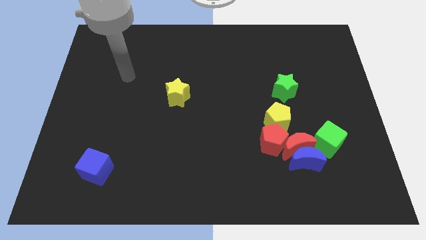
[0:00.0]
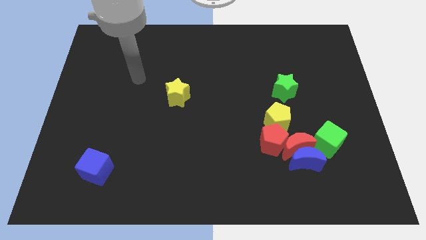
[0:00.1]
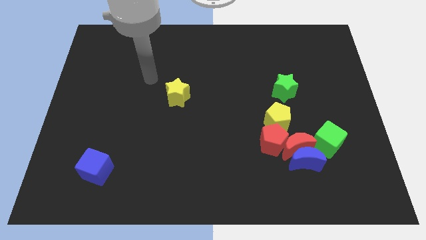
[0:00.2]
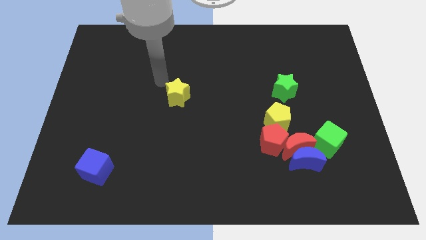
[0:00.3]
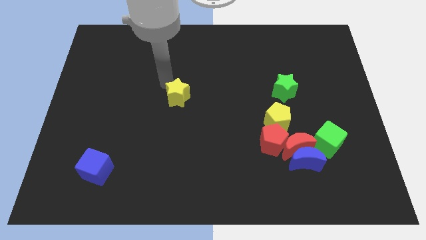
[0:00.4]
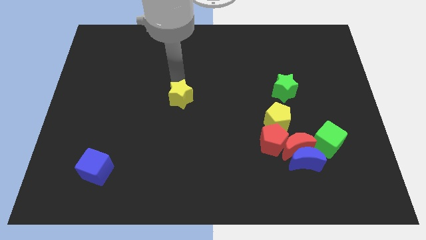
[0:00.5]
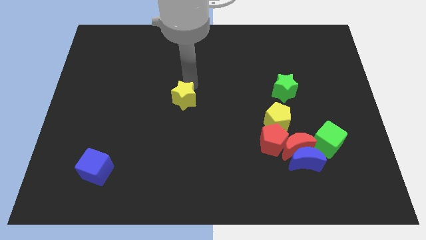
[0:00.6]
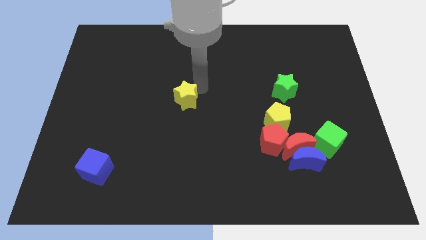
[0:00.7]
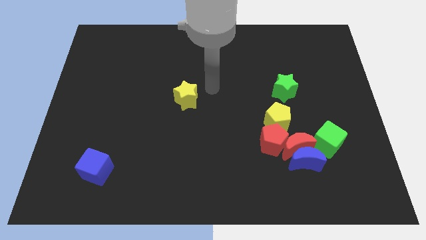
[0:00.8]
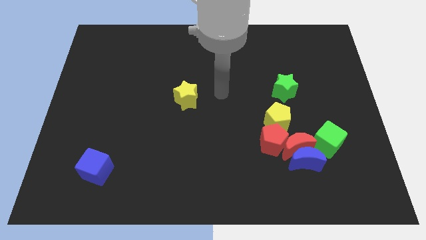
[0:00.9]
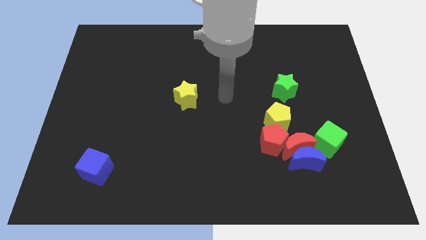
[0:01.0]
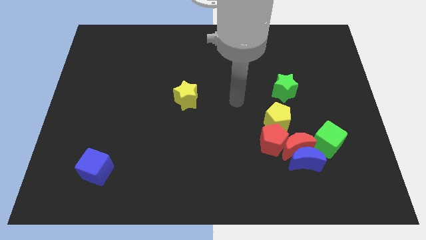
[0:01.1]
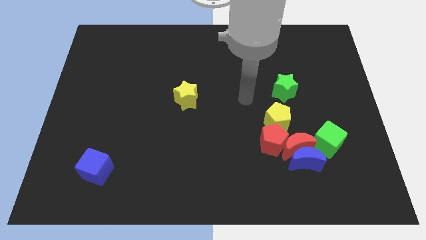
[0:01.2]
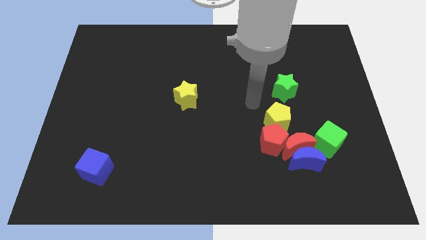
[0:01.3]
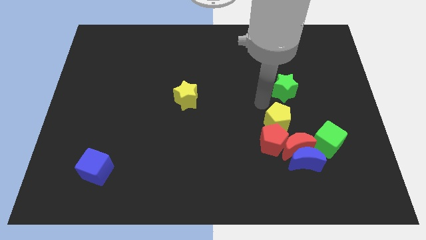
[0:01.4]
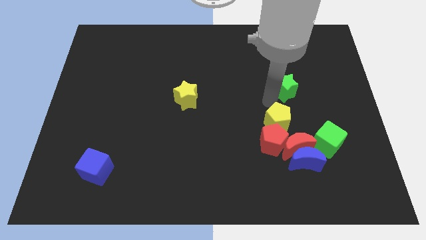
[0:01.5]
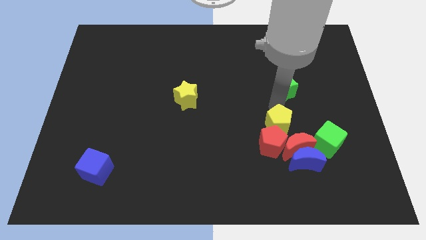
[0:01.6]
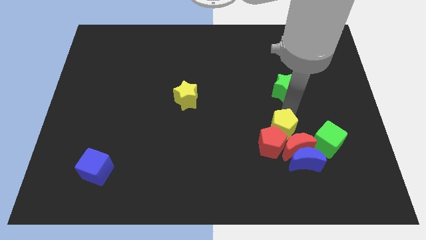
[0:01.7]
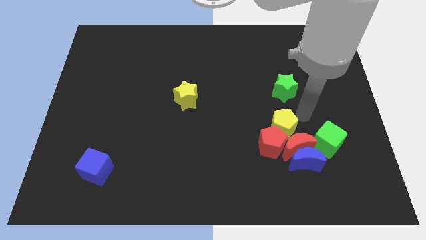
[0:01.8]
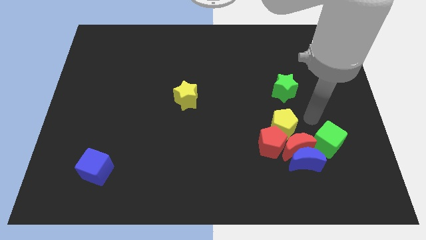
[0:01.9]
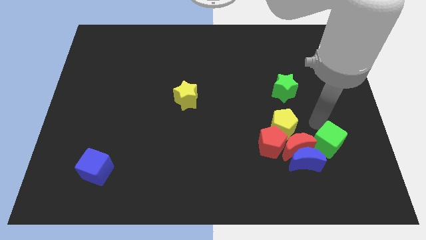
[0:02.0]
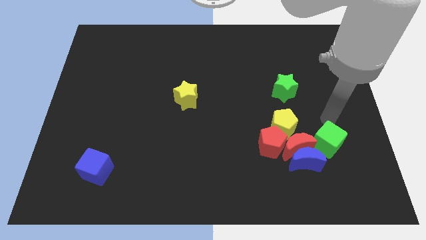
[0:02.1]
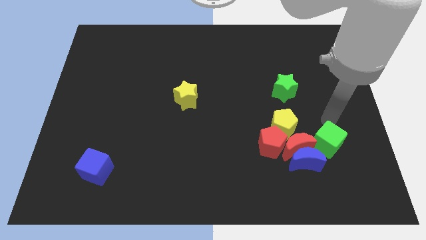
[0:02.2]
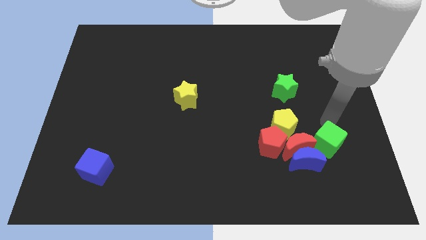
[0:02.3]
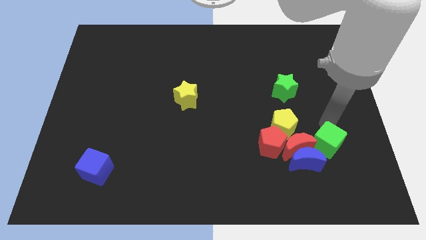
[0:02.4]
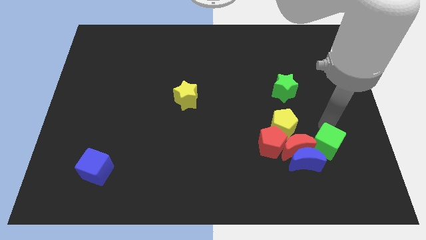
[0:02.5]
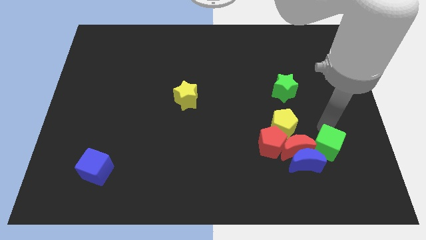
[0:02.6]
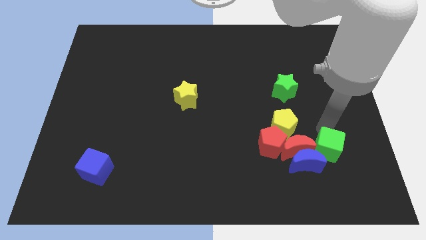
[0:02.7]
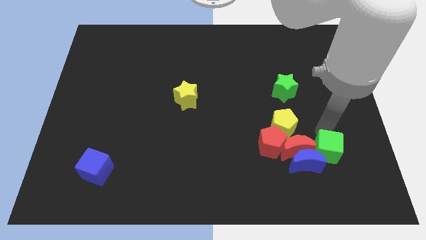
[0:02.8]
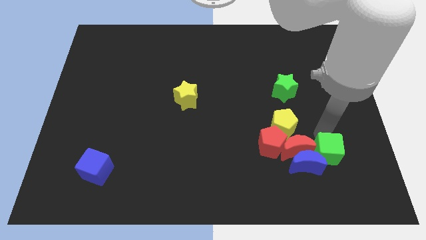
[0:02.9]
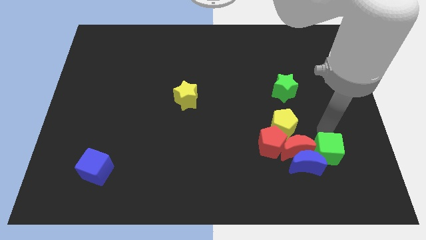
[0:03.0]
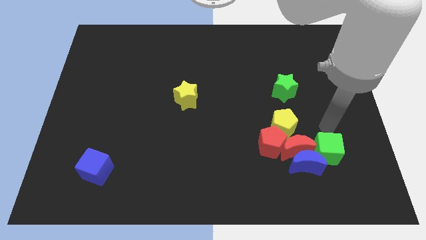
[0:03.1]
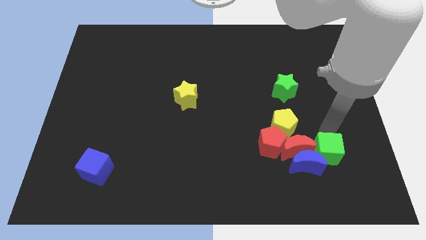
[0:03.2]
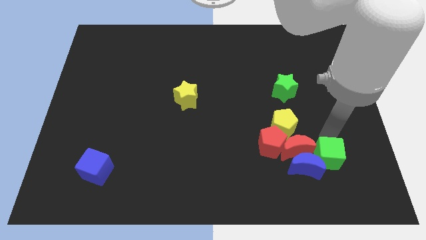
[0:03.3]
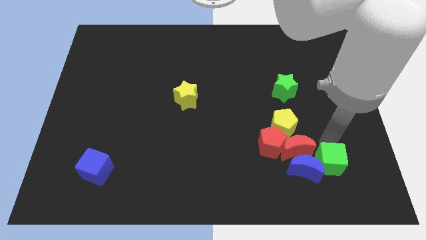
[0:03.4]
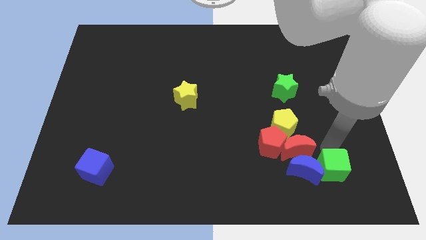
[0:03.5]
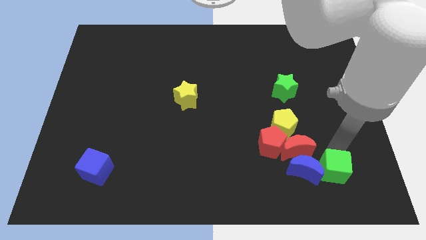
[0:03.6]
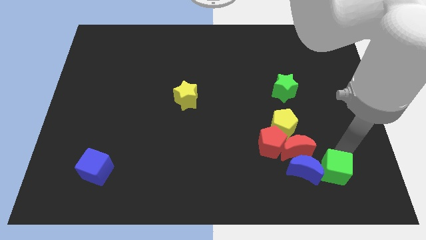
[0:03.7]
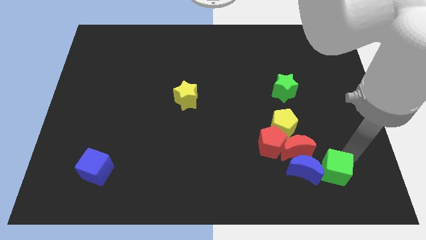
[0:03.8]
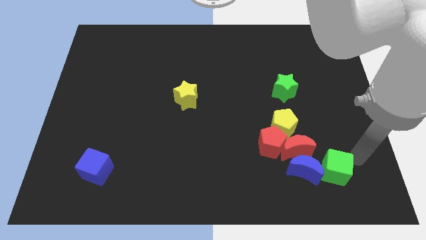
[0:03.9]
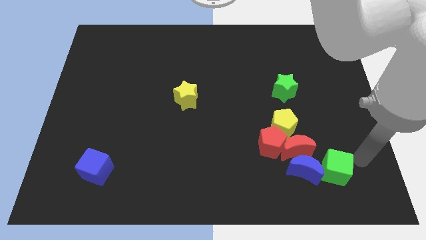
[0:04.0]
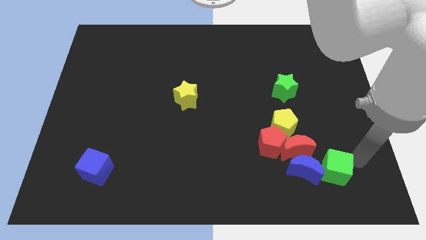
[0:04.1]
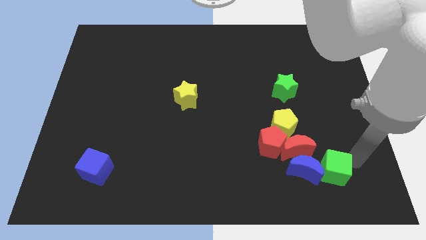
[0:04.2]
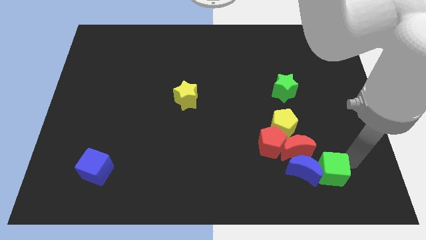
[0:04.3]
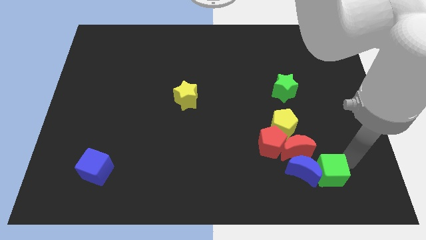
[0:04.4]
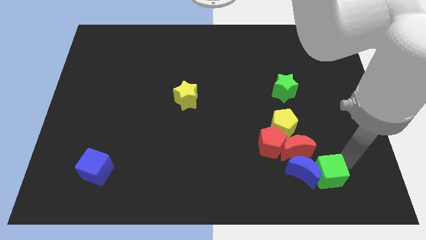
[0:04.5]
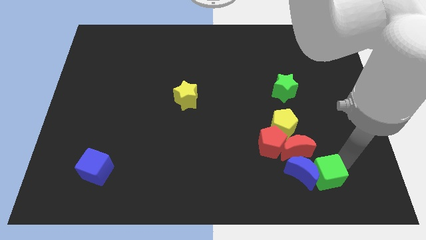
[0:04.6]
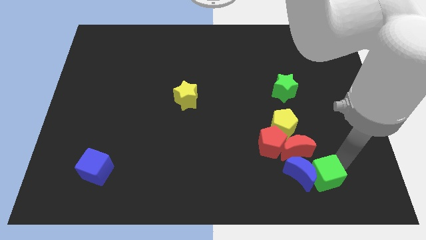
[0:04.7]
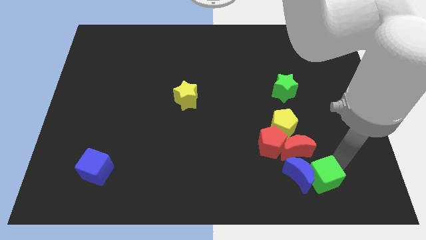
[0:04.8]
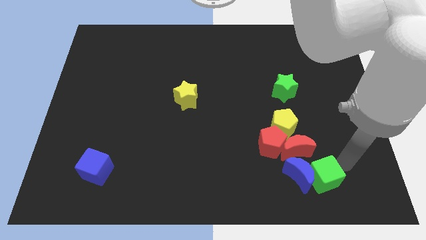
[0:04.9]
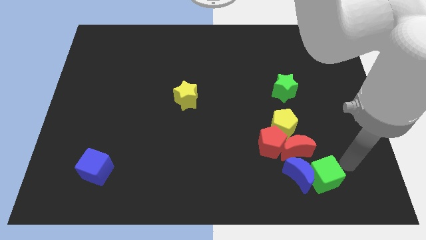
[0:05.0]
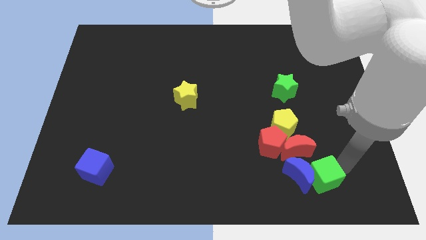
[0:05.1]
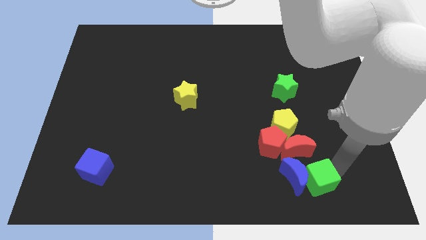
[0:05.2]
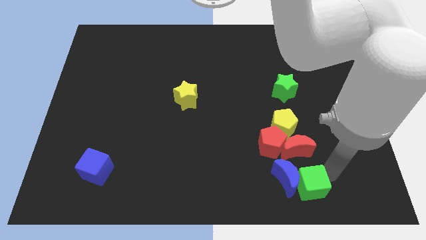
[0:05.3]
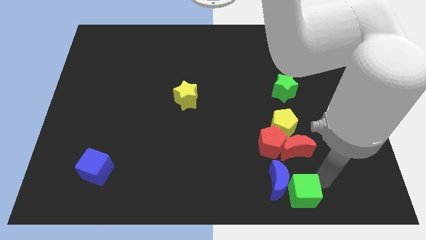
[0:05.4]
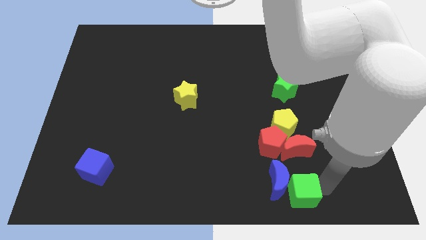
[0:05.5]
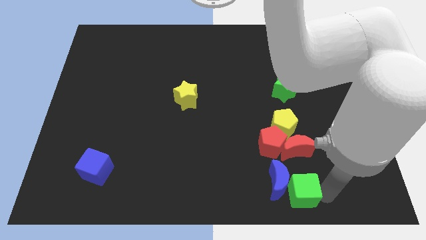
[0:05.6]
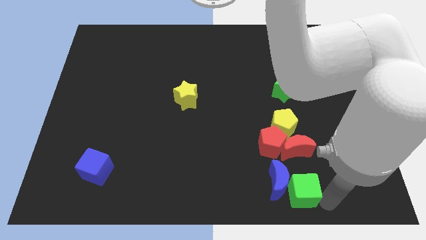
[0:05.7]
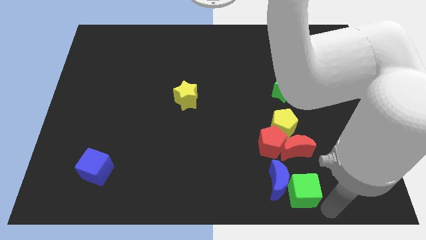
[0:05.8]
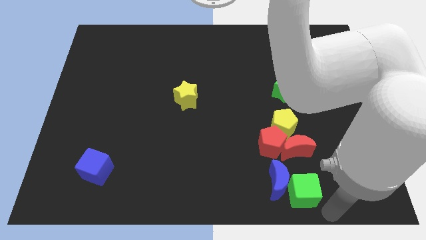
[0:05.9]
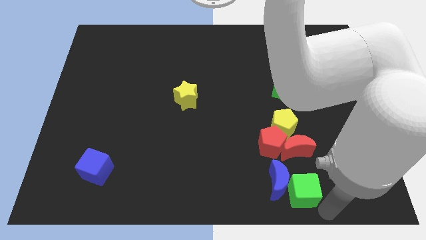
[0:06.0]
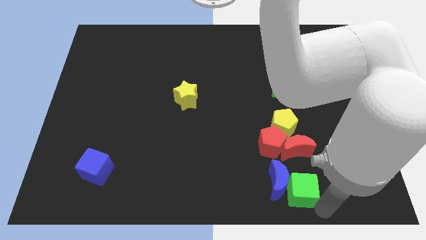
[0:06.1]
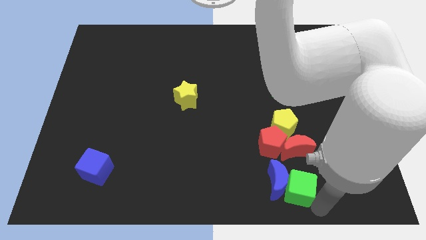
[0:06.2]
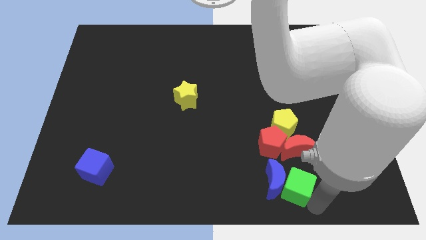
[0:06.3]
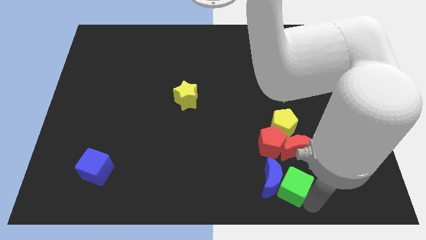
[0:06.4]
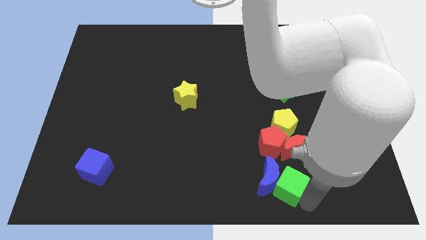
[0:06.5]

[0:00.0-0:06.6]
push the green cube to the bottom left side of the red moon

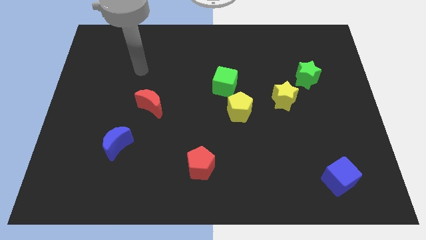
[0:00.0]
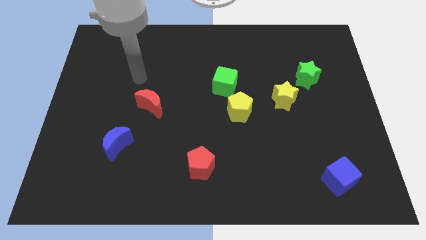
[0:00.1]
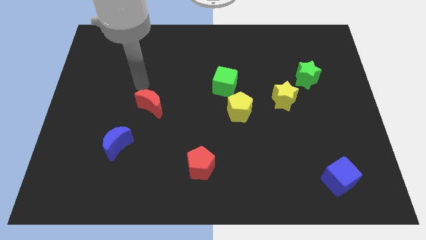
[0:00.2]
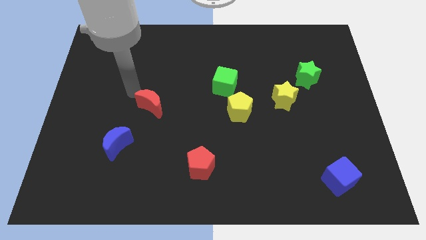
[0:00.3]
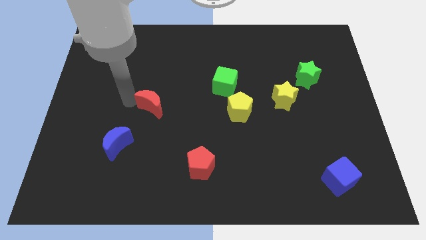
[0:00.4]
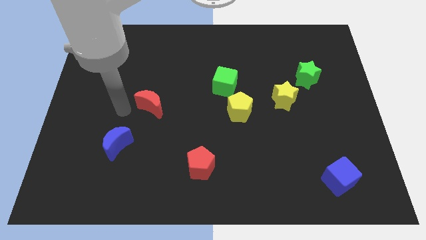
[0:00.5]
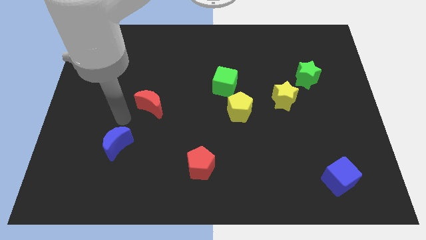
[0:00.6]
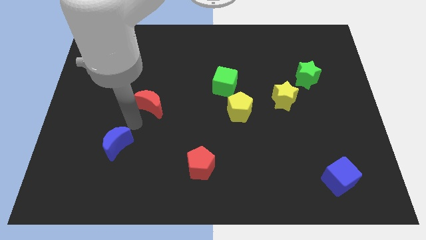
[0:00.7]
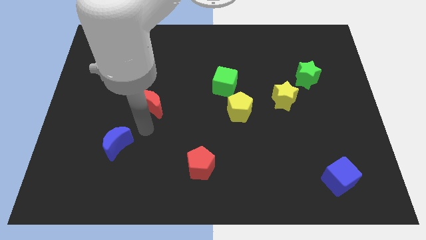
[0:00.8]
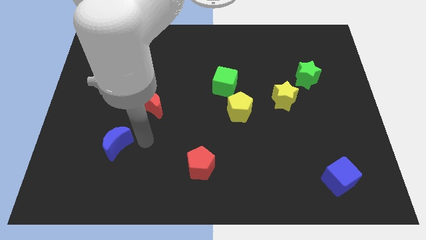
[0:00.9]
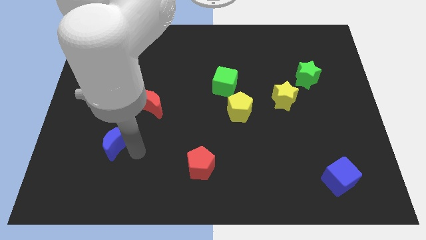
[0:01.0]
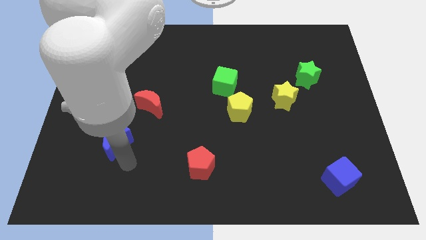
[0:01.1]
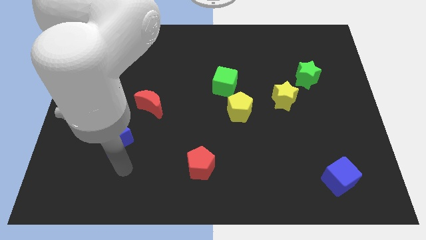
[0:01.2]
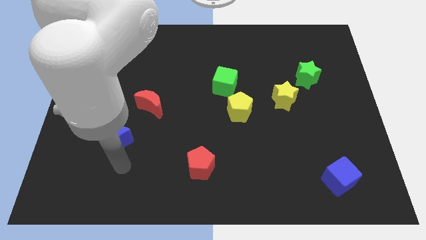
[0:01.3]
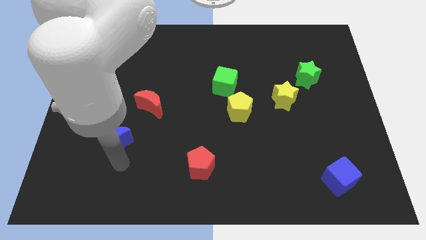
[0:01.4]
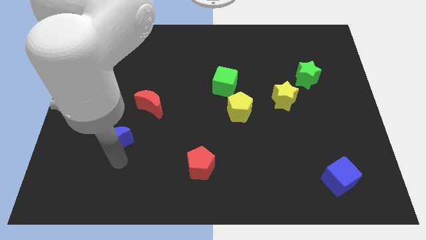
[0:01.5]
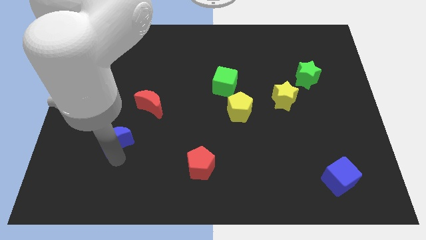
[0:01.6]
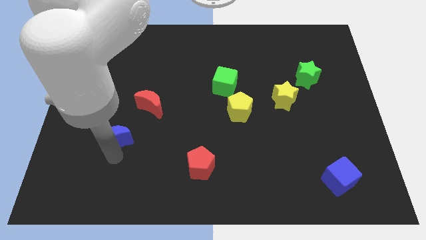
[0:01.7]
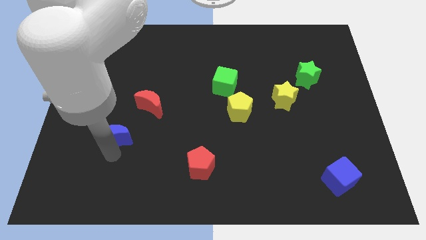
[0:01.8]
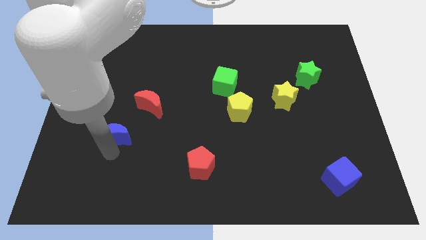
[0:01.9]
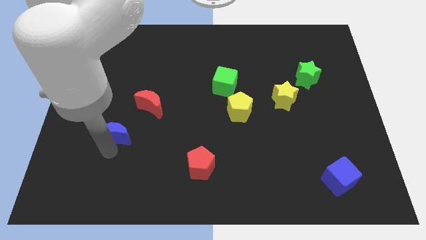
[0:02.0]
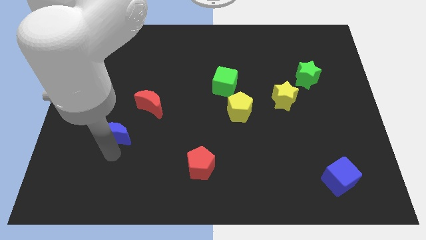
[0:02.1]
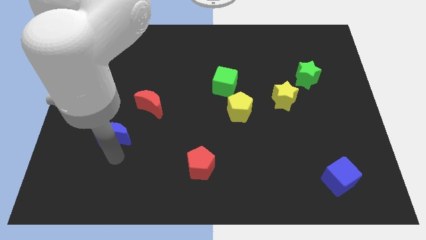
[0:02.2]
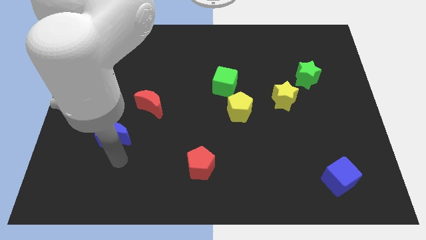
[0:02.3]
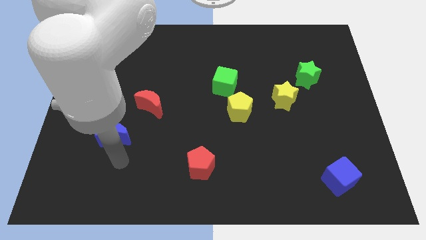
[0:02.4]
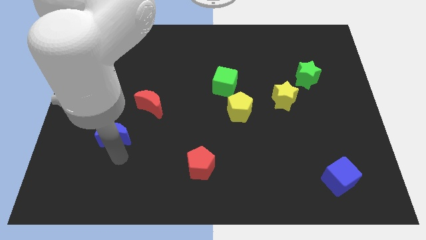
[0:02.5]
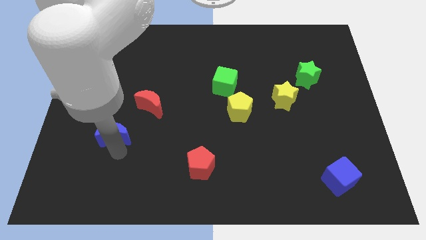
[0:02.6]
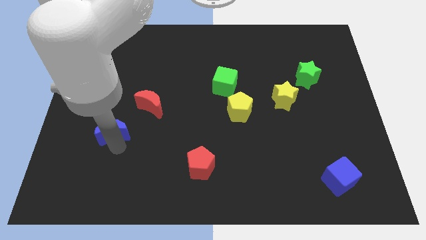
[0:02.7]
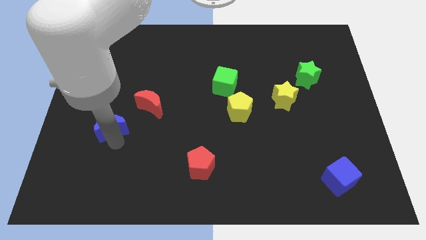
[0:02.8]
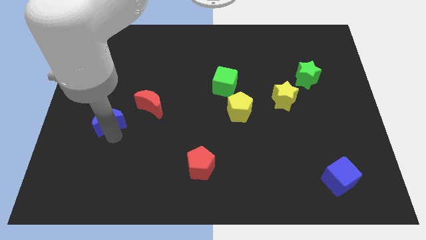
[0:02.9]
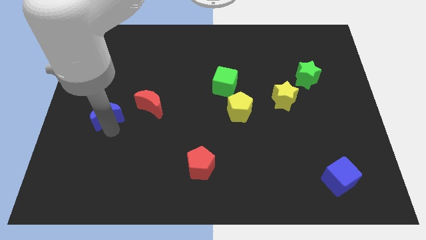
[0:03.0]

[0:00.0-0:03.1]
push the blue moon to the left of the red moon
